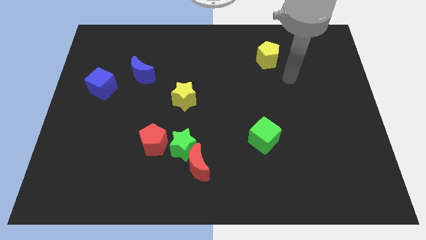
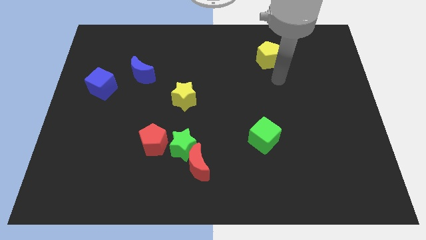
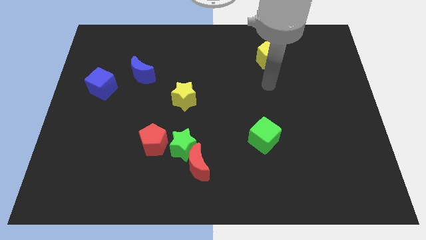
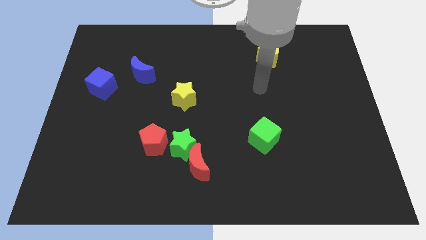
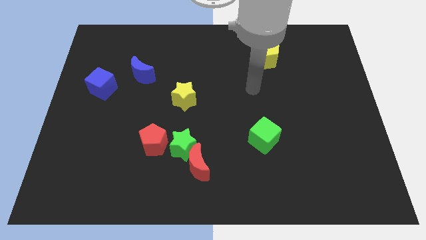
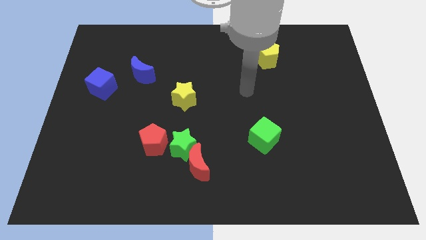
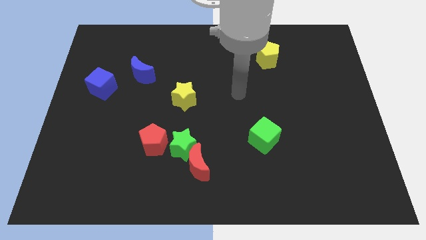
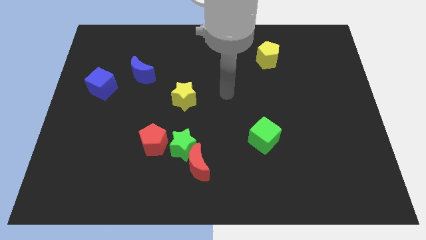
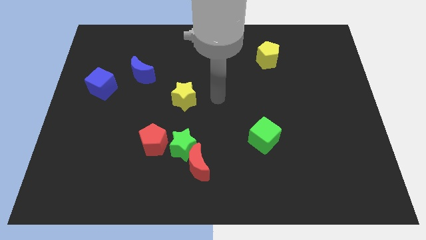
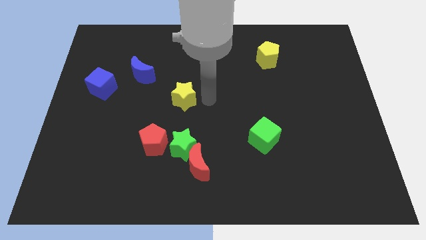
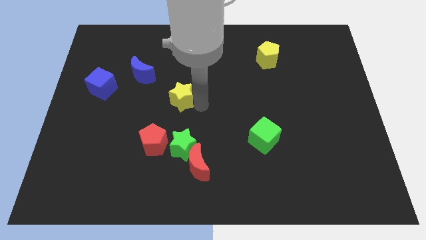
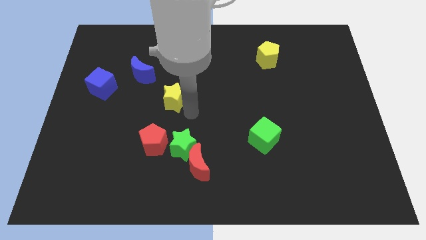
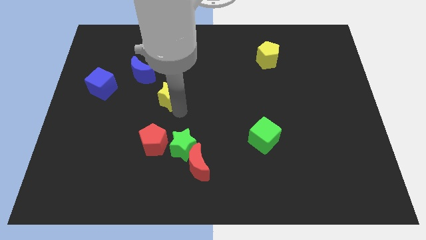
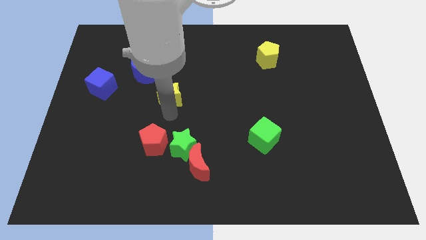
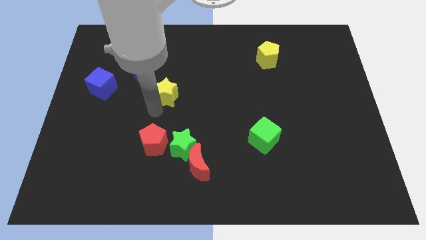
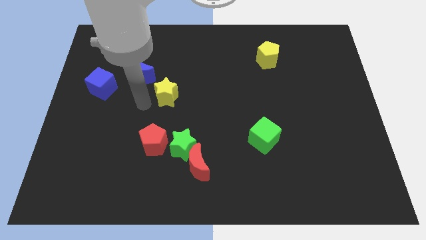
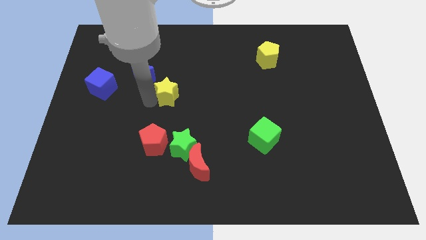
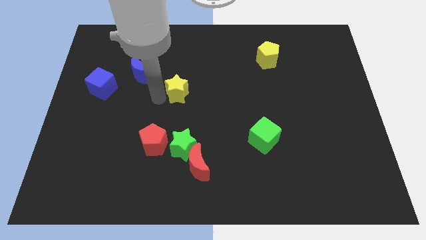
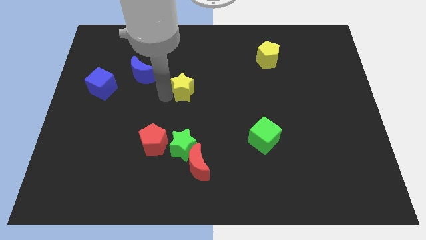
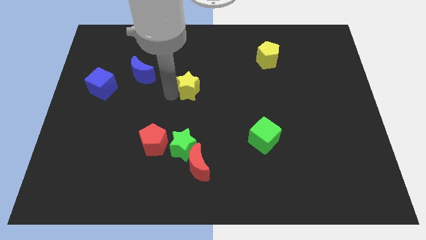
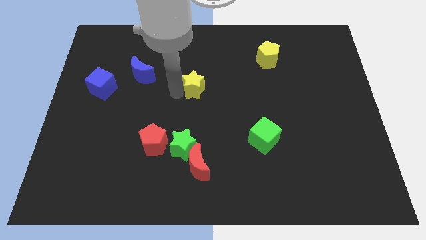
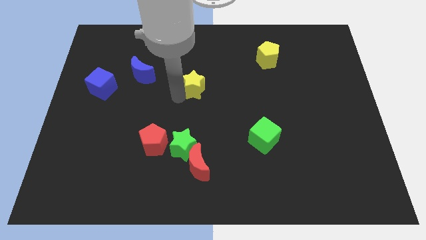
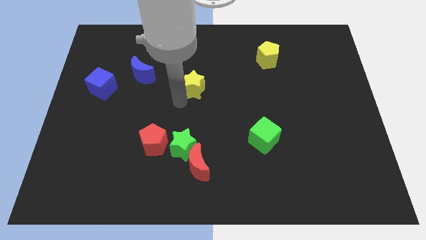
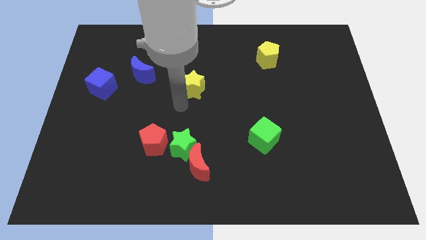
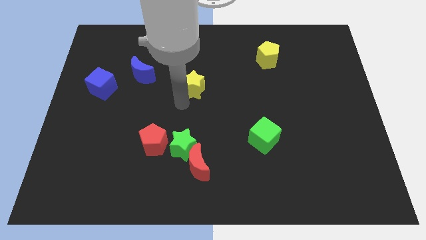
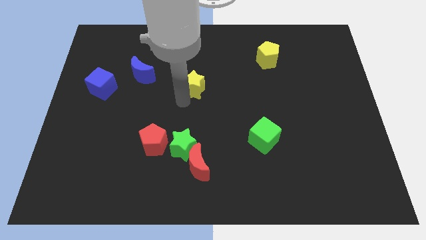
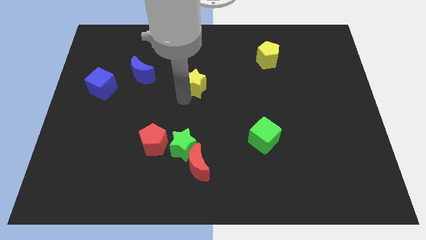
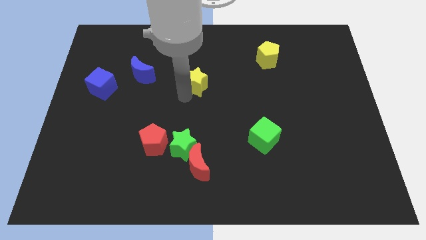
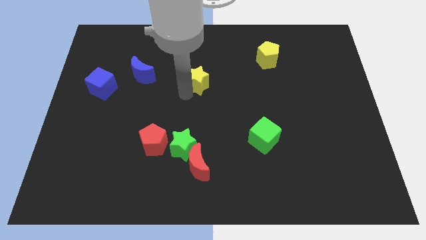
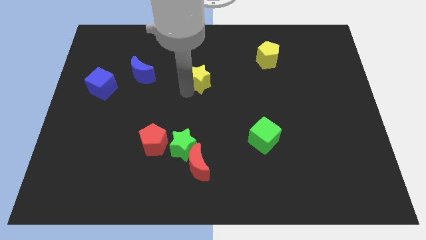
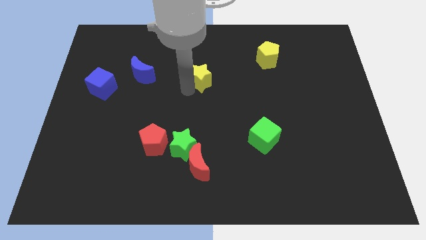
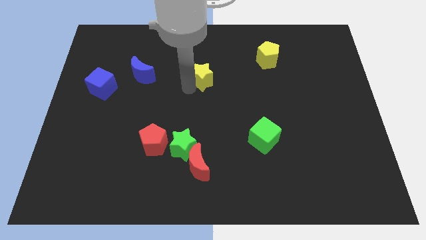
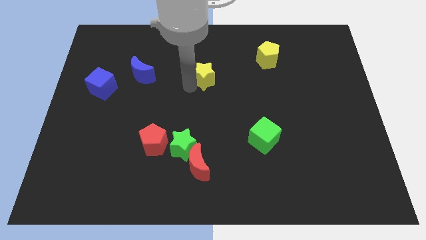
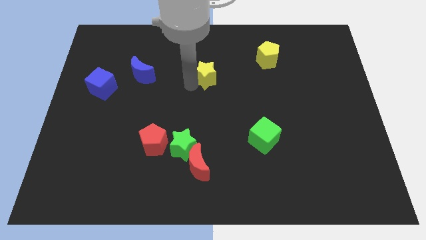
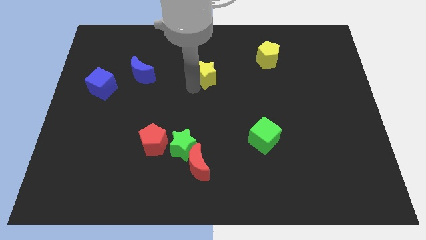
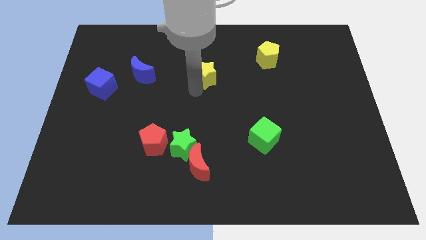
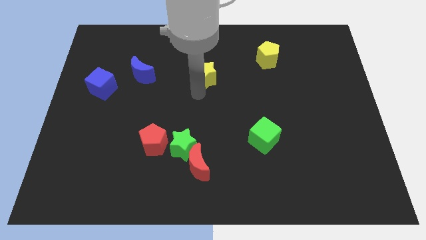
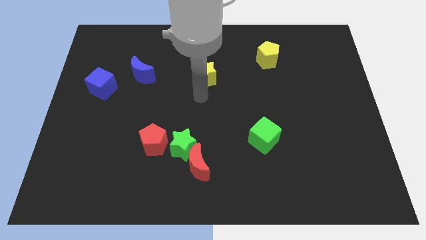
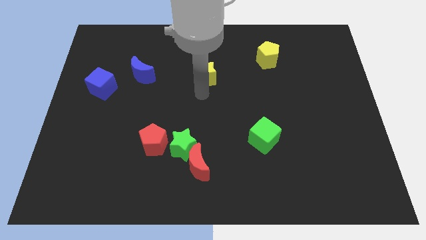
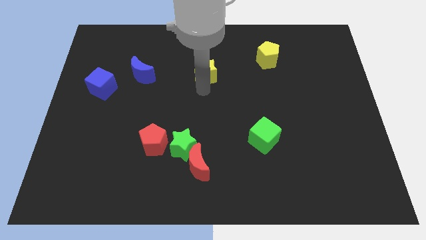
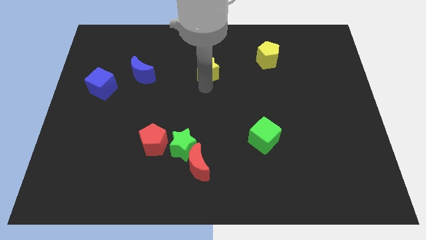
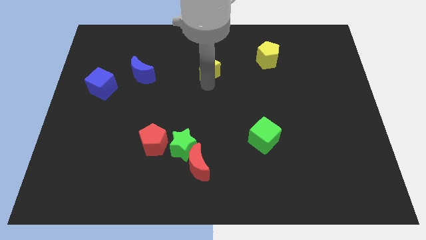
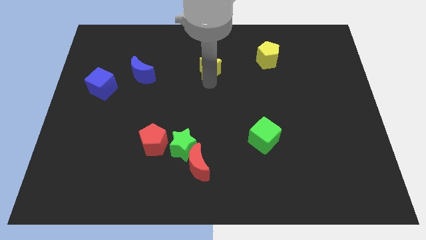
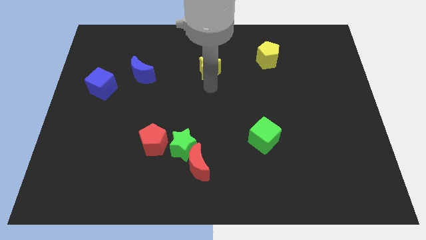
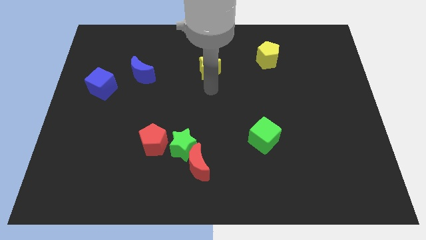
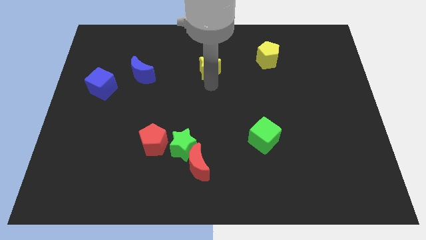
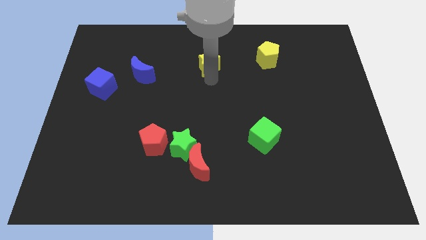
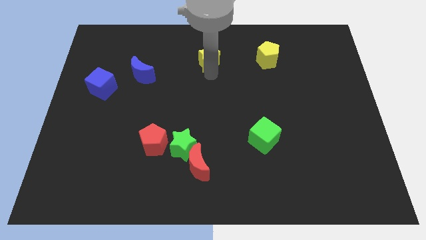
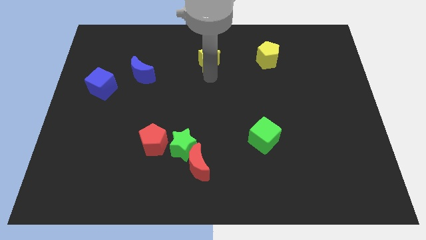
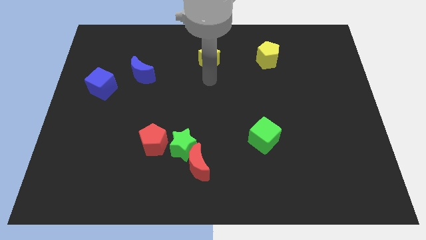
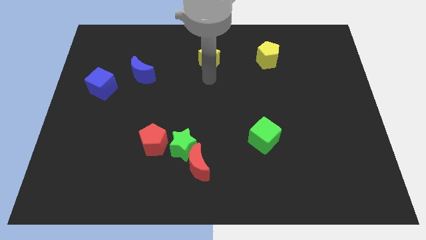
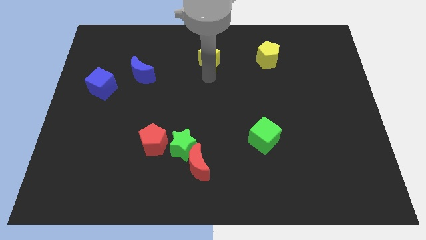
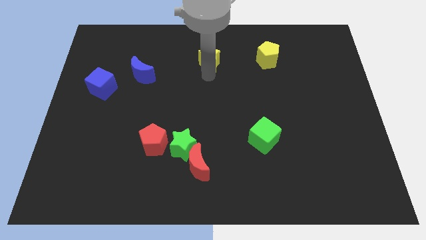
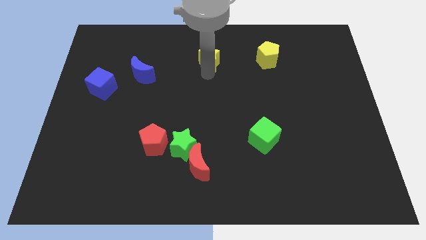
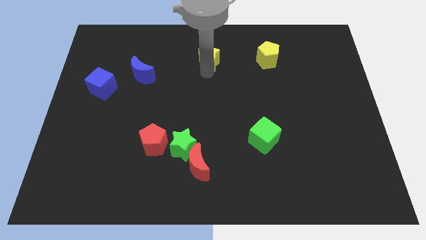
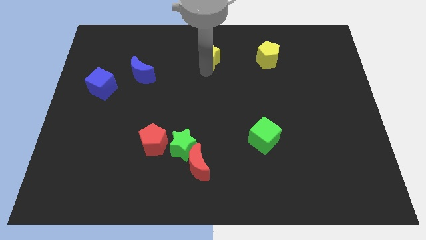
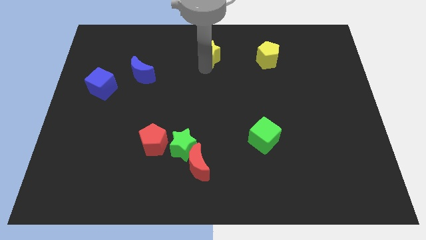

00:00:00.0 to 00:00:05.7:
move the yellow star to the towards your base

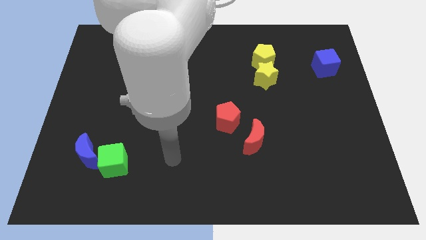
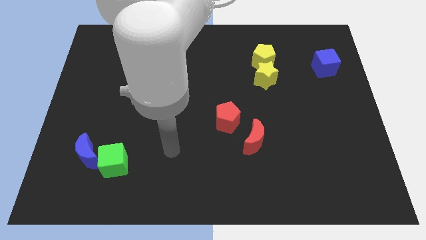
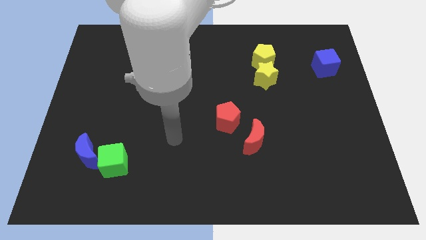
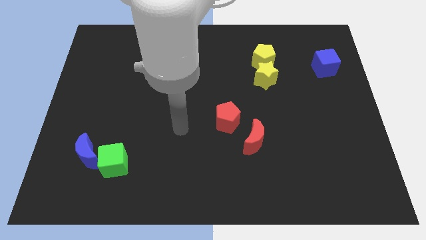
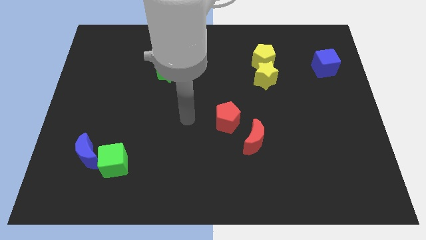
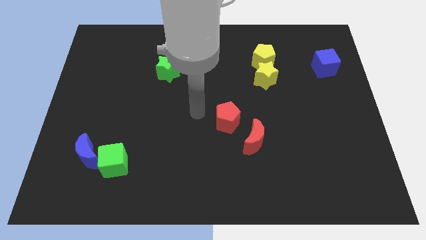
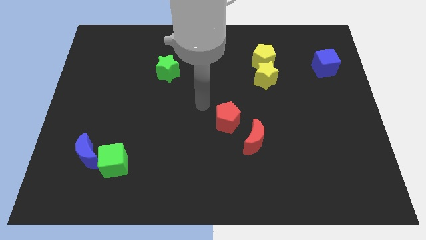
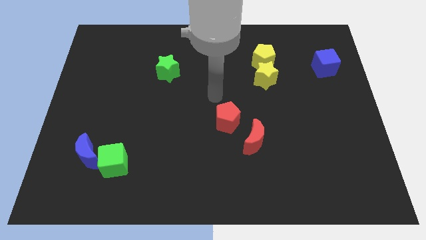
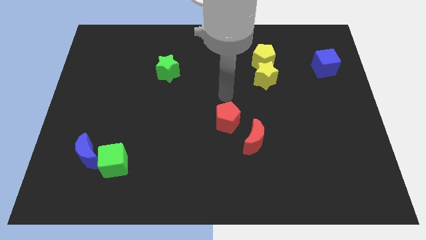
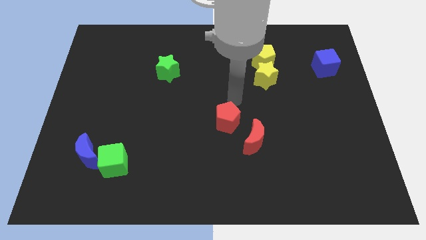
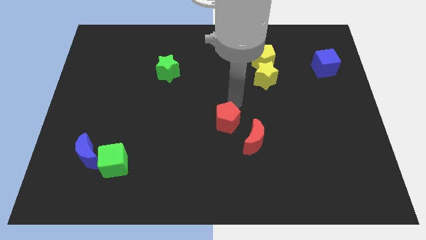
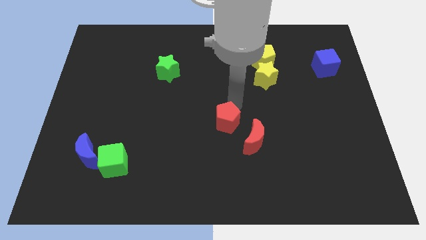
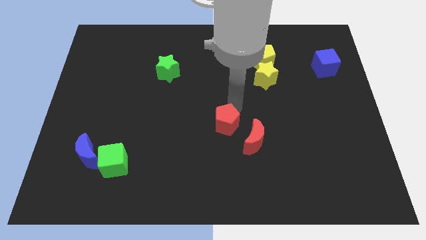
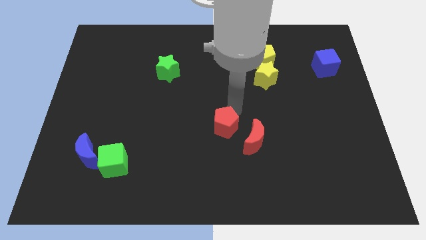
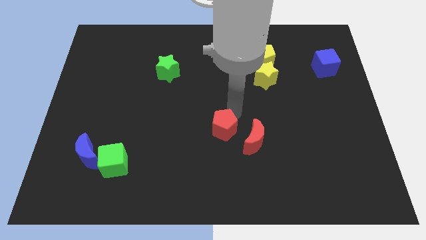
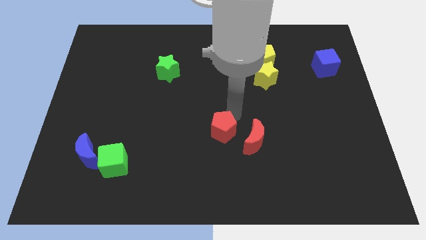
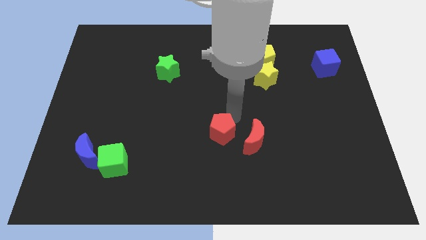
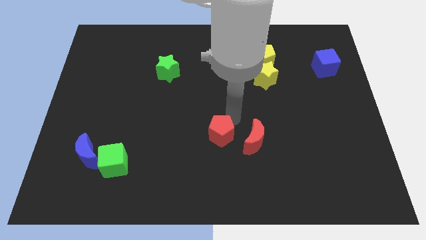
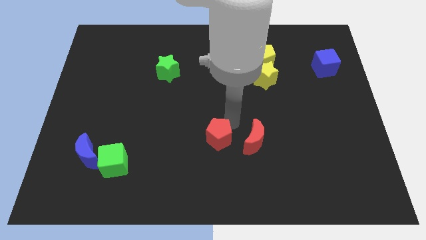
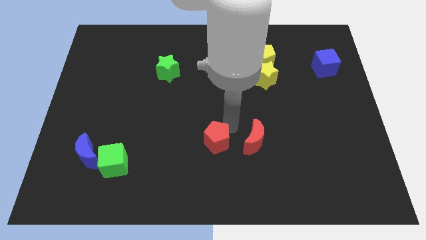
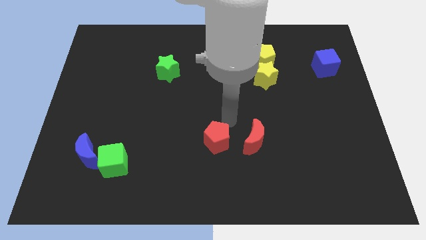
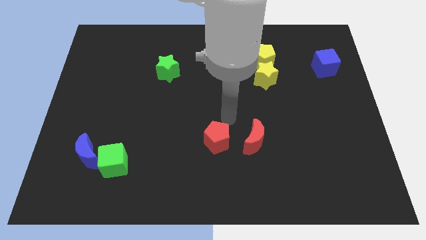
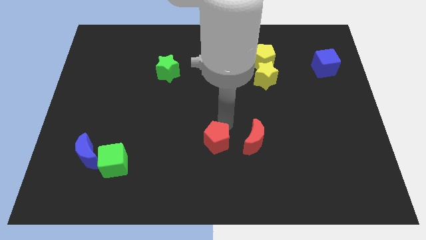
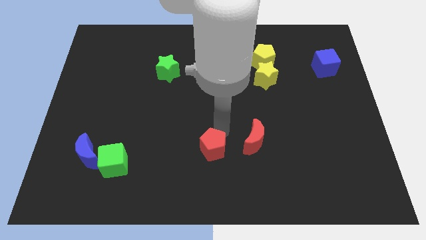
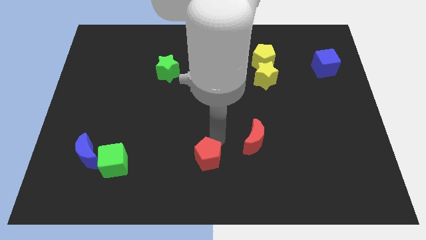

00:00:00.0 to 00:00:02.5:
move the red pentagon to the bottom side
